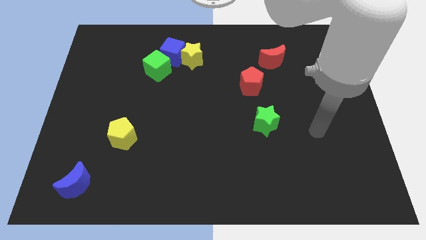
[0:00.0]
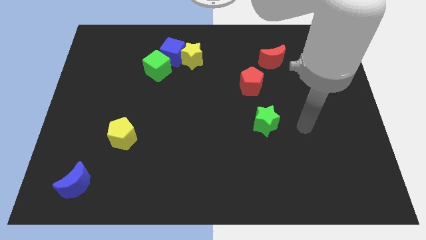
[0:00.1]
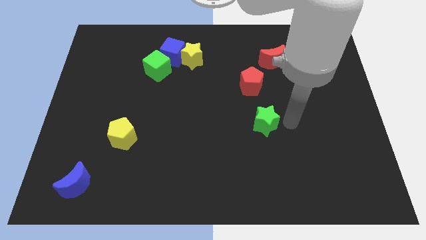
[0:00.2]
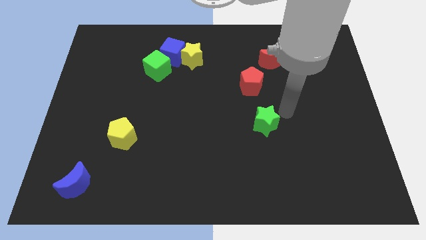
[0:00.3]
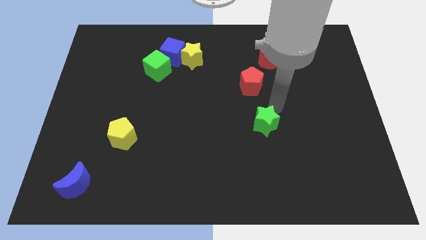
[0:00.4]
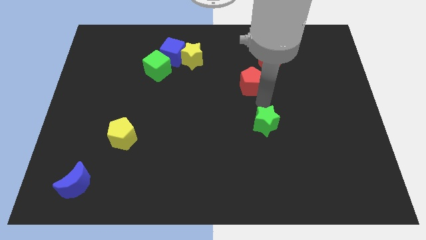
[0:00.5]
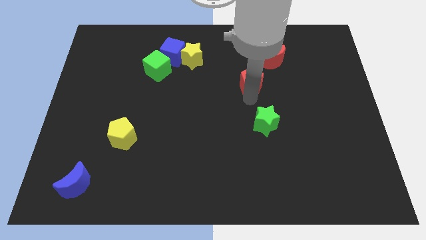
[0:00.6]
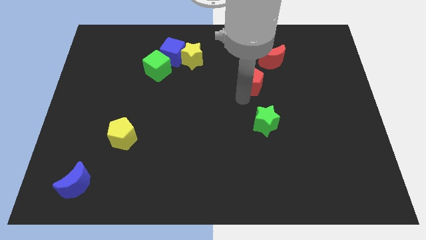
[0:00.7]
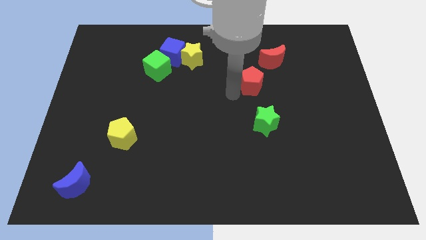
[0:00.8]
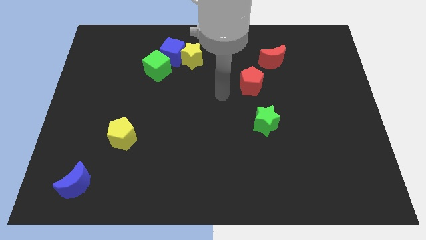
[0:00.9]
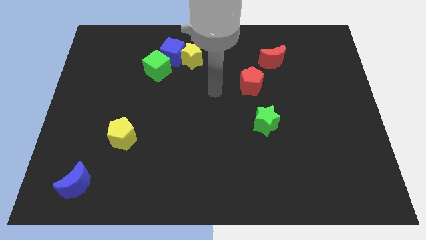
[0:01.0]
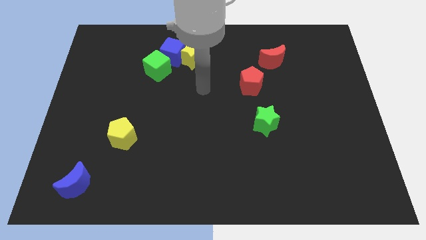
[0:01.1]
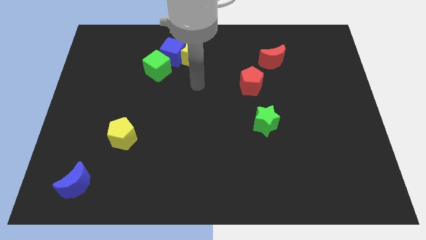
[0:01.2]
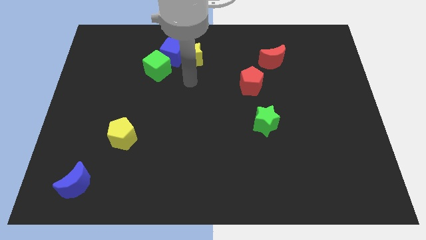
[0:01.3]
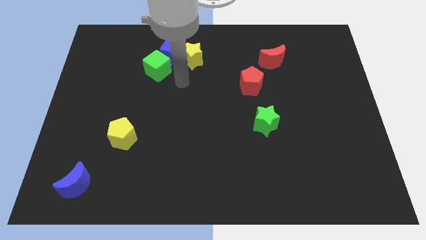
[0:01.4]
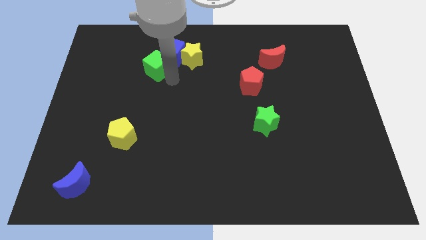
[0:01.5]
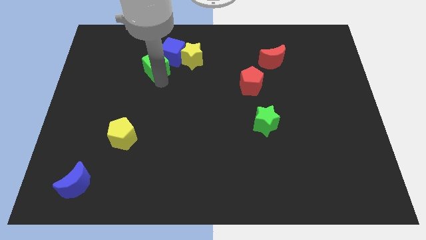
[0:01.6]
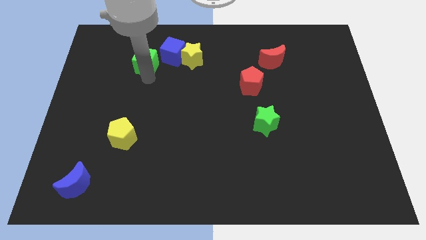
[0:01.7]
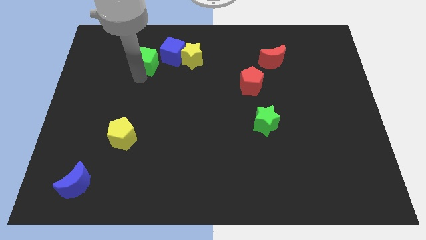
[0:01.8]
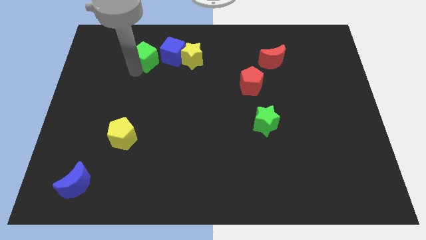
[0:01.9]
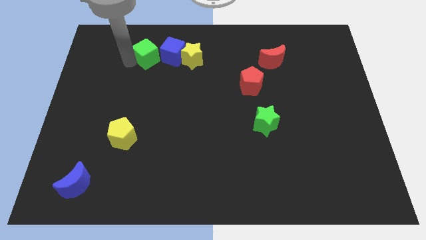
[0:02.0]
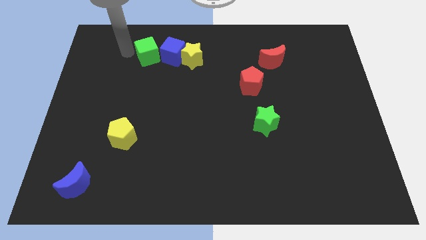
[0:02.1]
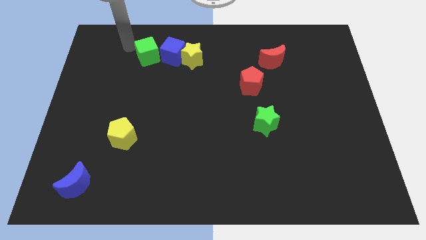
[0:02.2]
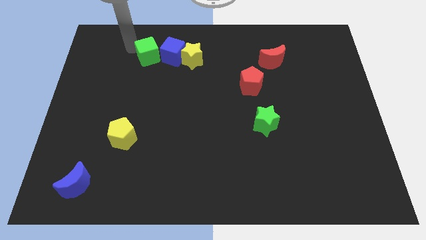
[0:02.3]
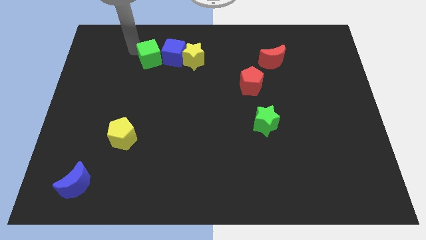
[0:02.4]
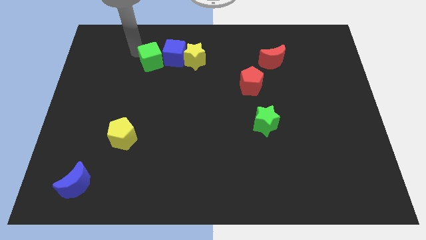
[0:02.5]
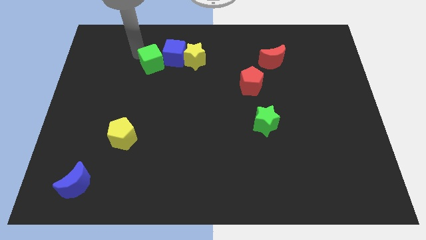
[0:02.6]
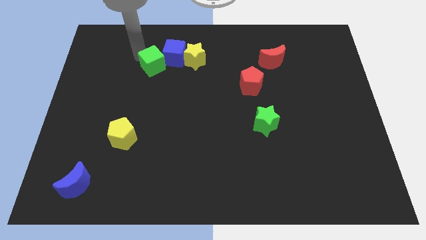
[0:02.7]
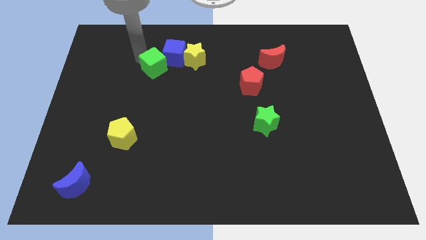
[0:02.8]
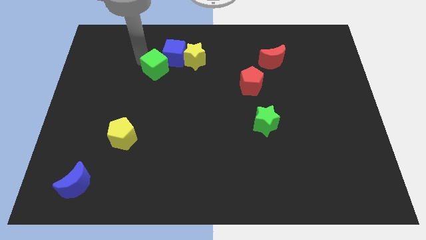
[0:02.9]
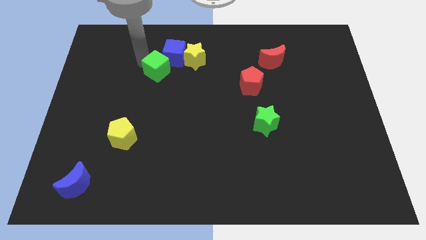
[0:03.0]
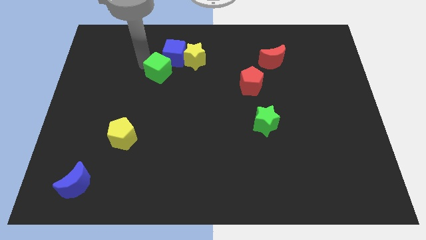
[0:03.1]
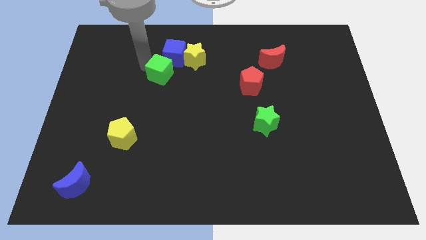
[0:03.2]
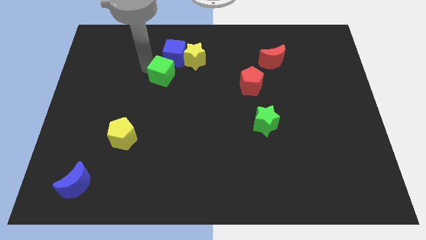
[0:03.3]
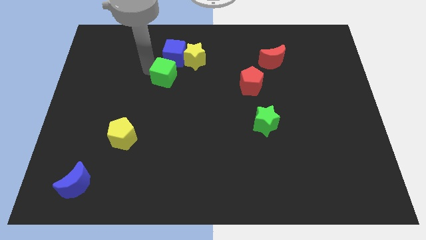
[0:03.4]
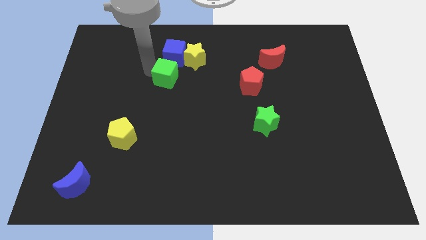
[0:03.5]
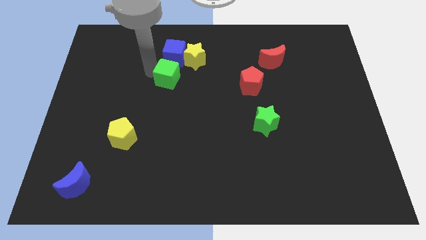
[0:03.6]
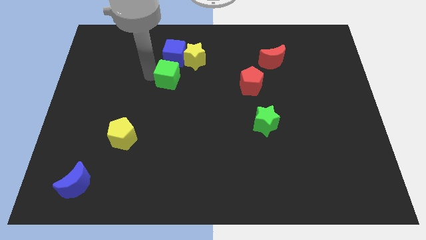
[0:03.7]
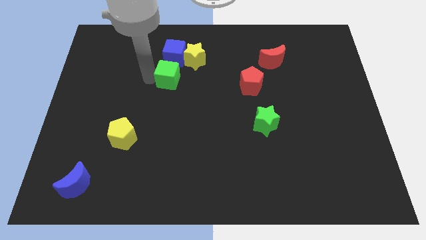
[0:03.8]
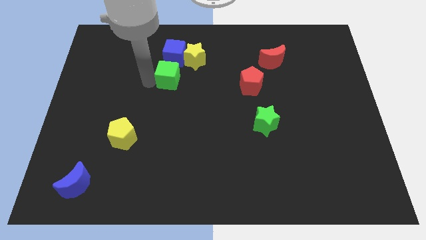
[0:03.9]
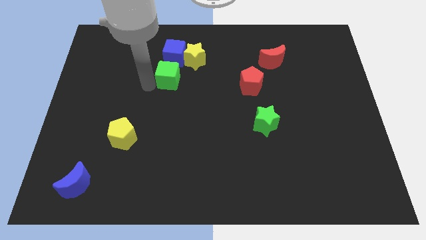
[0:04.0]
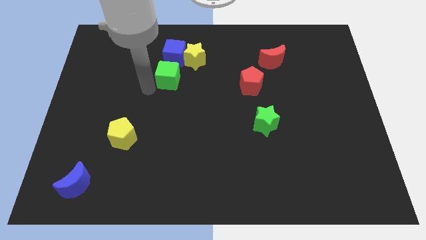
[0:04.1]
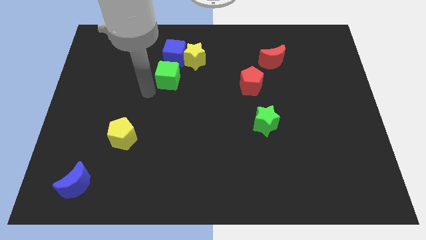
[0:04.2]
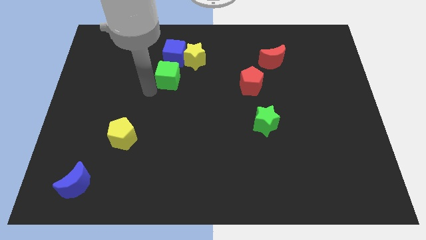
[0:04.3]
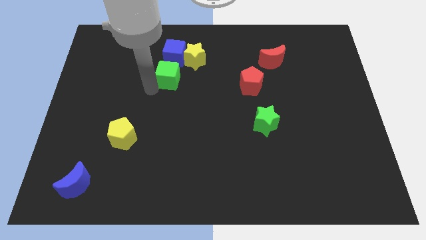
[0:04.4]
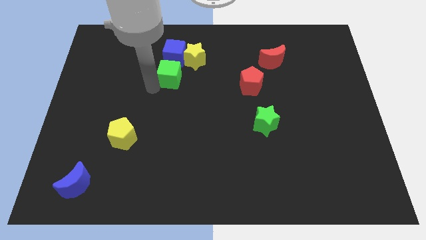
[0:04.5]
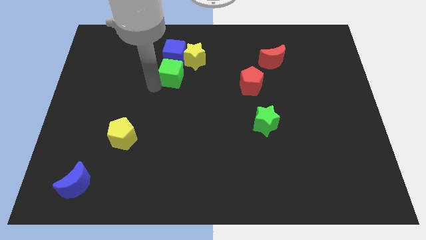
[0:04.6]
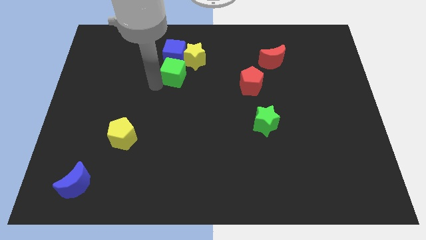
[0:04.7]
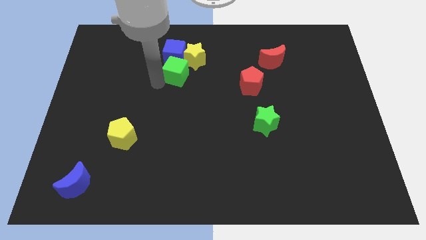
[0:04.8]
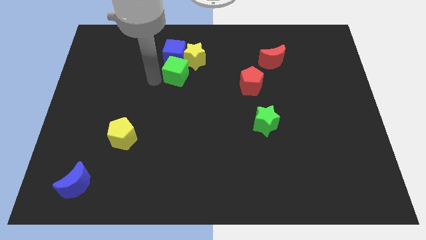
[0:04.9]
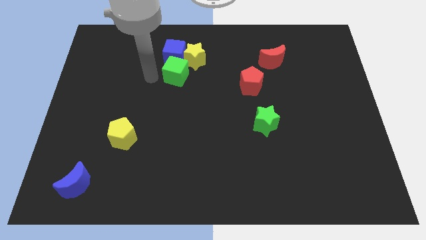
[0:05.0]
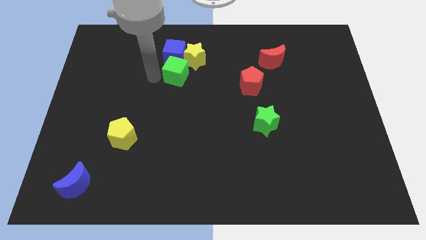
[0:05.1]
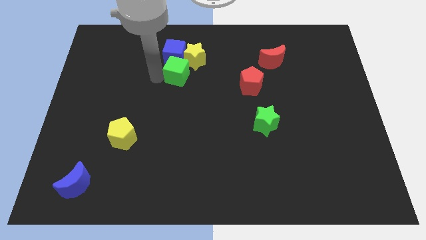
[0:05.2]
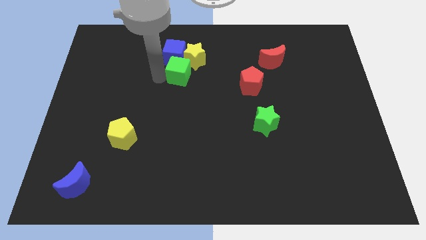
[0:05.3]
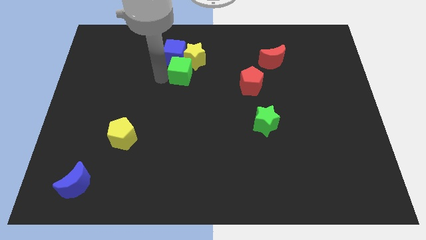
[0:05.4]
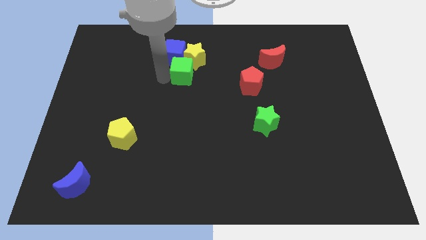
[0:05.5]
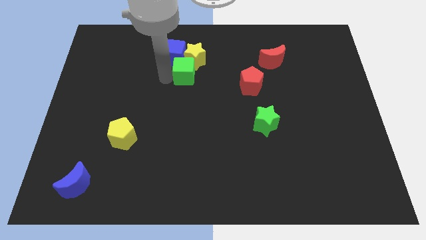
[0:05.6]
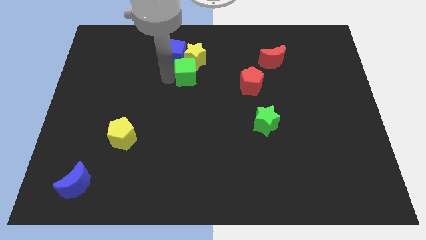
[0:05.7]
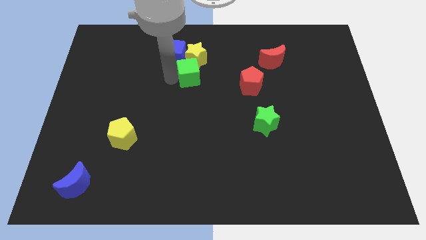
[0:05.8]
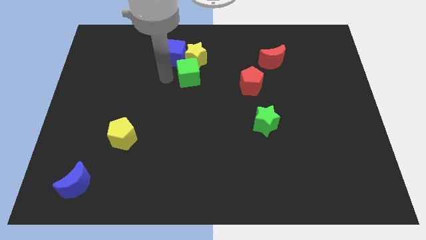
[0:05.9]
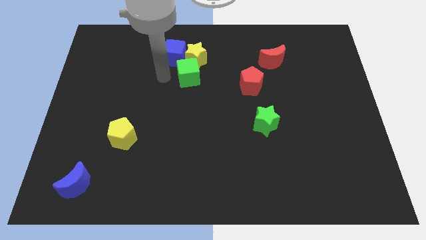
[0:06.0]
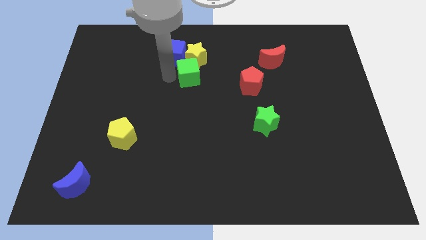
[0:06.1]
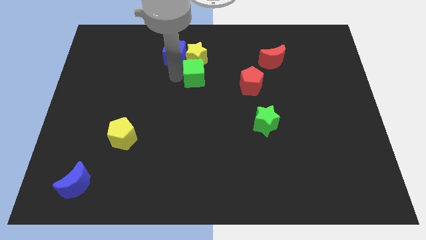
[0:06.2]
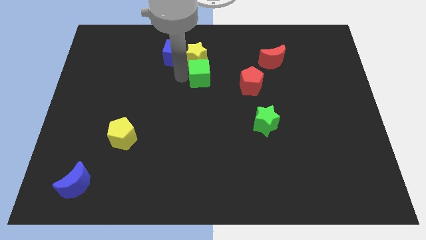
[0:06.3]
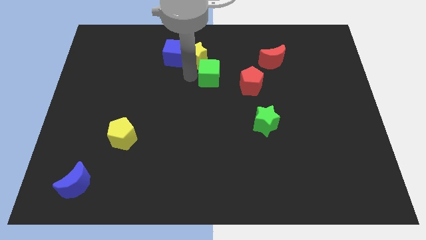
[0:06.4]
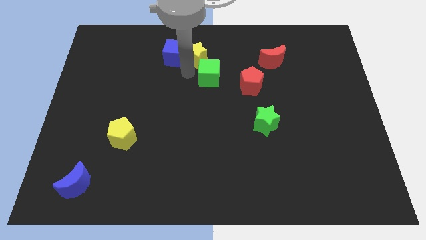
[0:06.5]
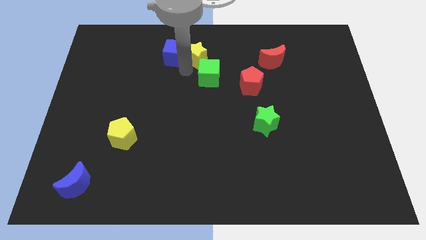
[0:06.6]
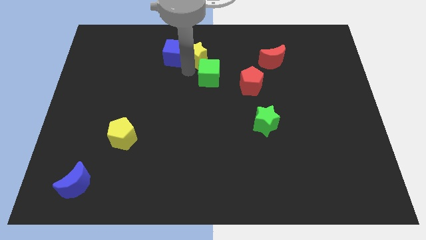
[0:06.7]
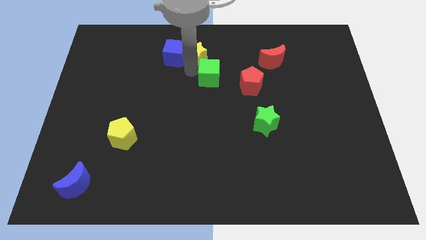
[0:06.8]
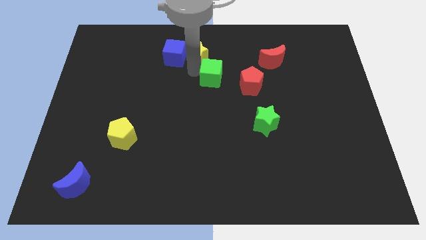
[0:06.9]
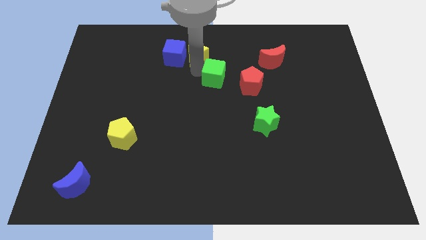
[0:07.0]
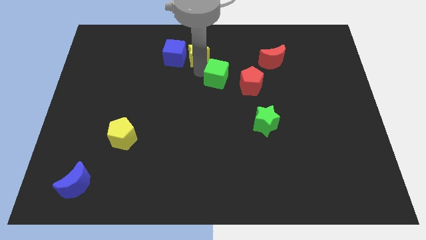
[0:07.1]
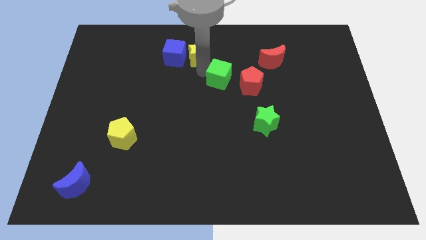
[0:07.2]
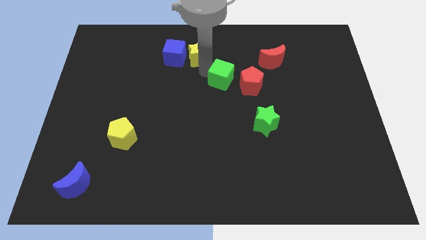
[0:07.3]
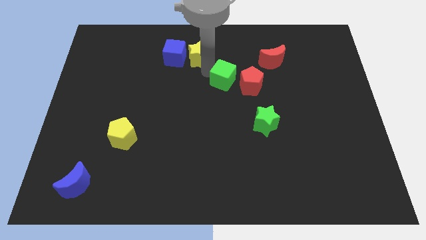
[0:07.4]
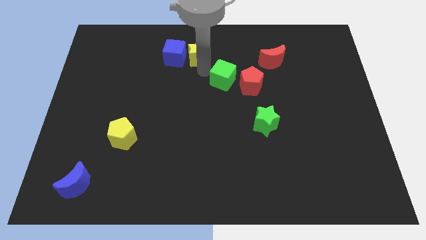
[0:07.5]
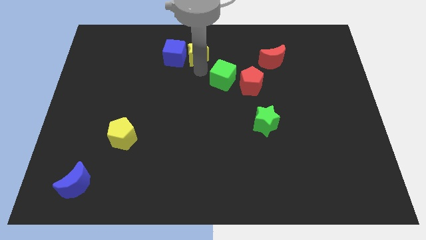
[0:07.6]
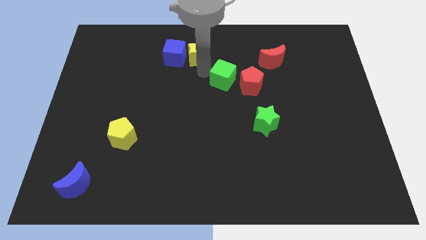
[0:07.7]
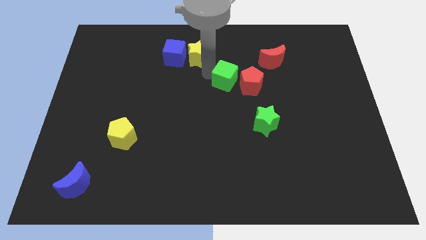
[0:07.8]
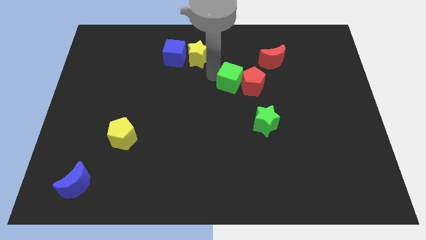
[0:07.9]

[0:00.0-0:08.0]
move the green cube towards the red pentagon
